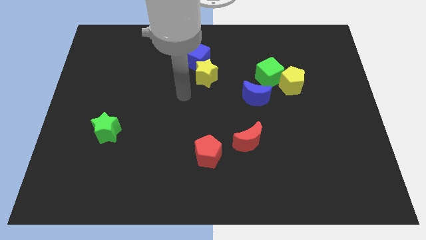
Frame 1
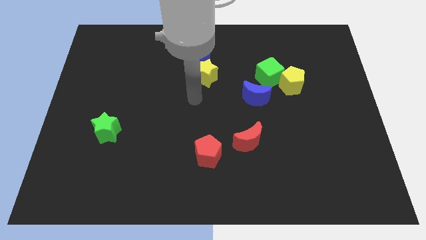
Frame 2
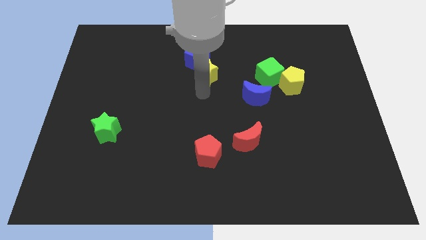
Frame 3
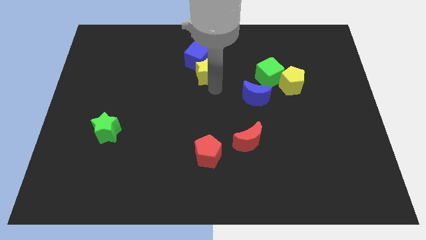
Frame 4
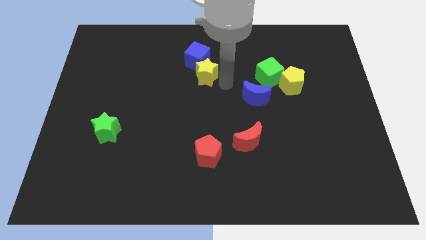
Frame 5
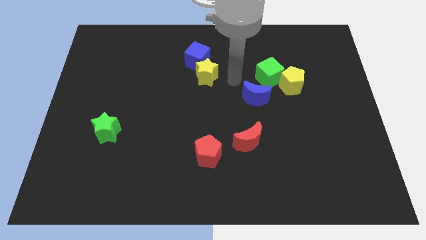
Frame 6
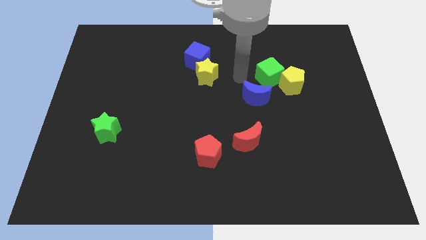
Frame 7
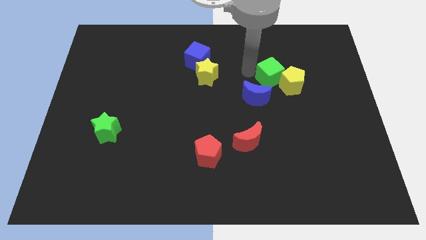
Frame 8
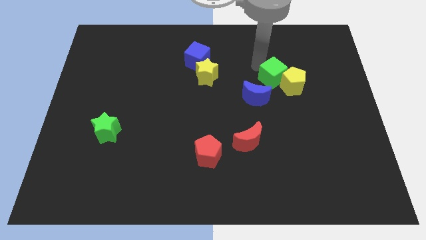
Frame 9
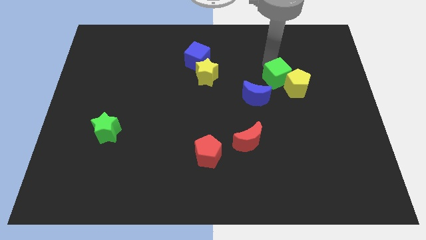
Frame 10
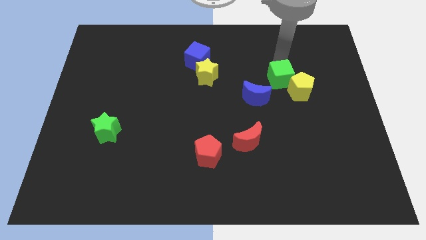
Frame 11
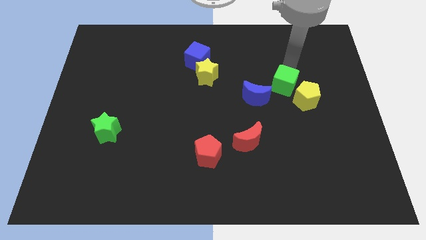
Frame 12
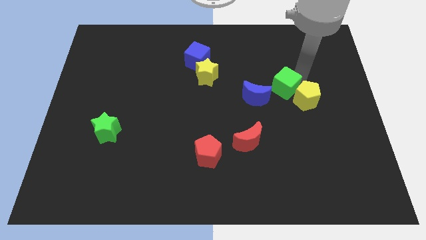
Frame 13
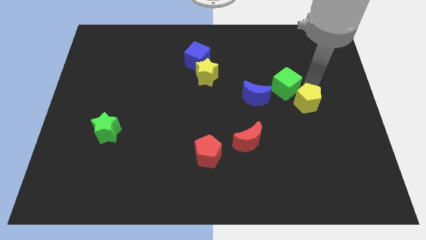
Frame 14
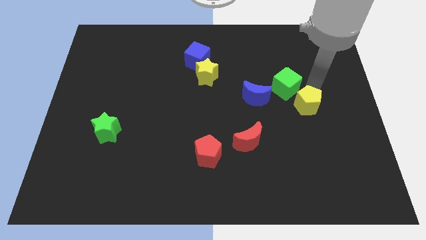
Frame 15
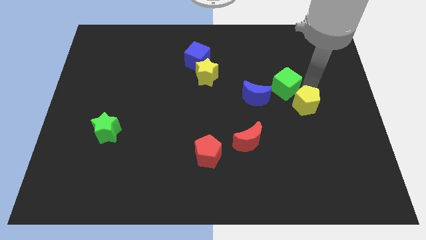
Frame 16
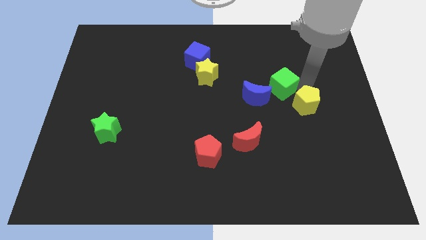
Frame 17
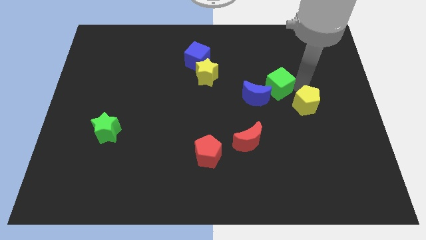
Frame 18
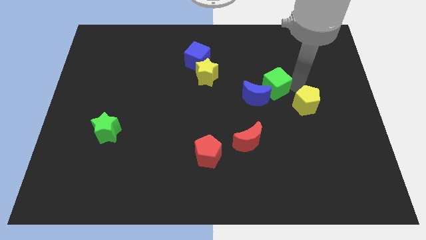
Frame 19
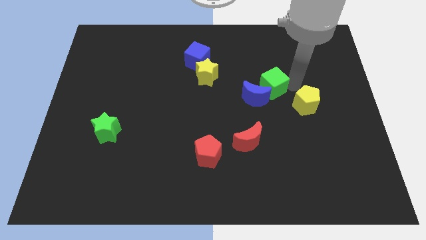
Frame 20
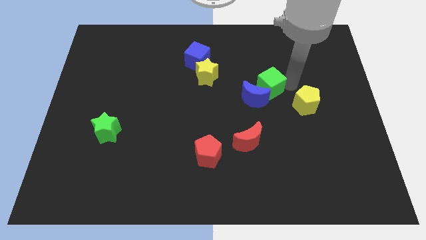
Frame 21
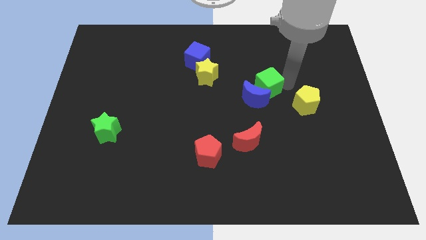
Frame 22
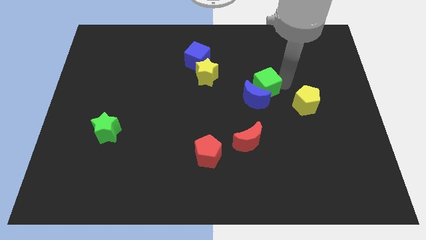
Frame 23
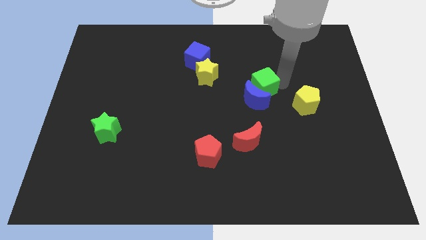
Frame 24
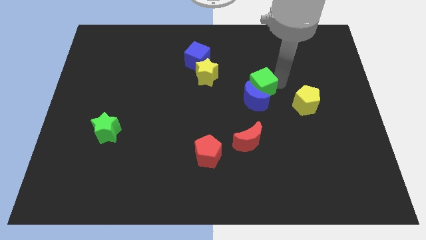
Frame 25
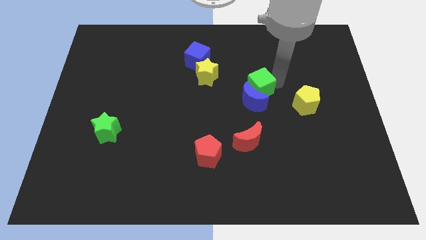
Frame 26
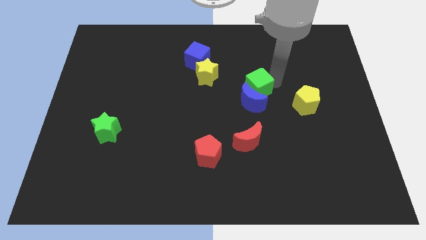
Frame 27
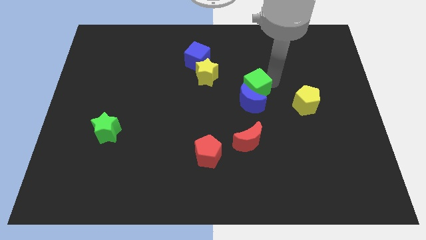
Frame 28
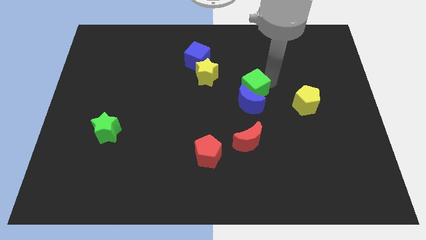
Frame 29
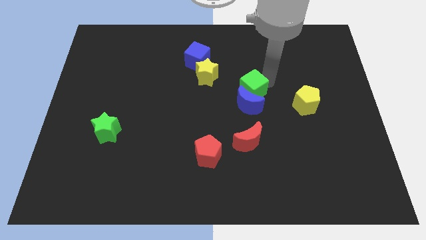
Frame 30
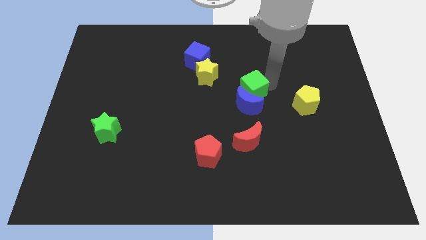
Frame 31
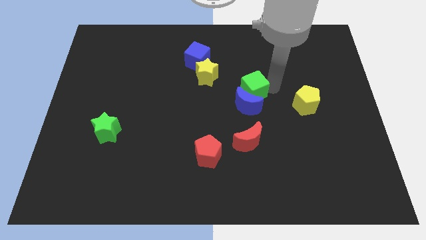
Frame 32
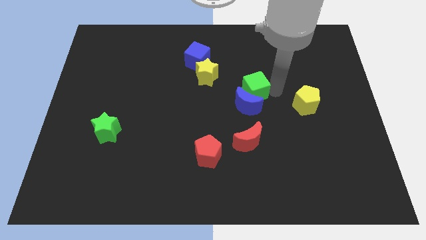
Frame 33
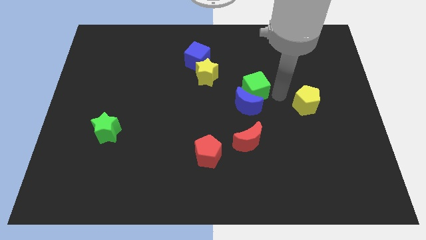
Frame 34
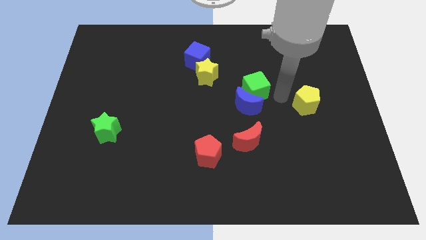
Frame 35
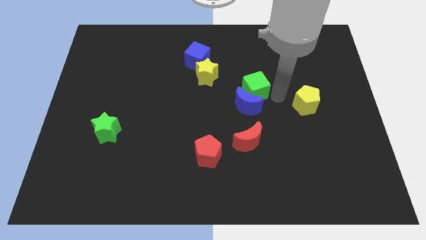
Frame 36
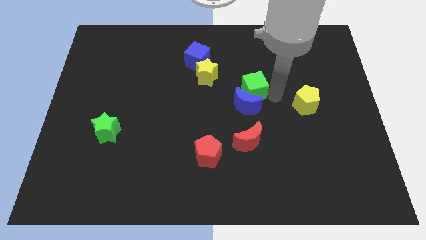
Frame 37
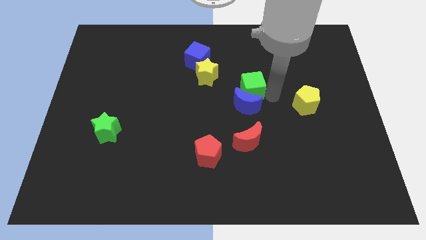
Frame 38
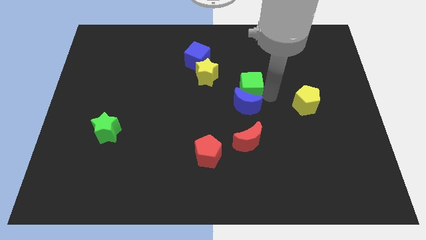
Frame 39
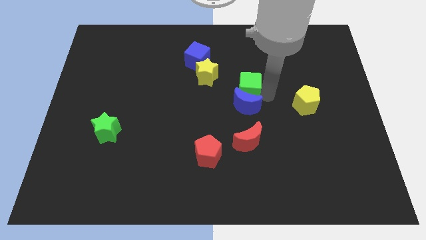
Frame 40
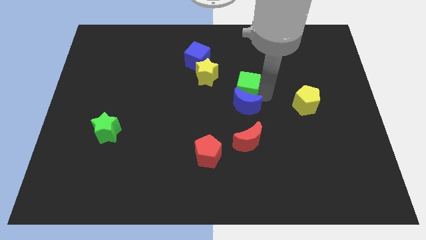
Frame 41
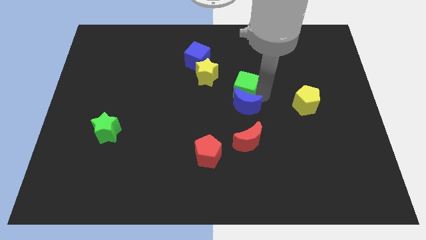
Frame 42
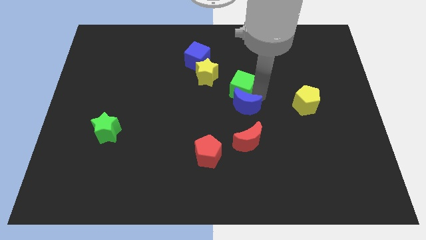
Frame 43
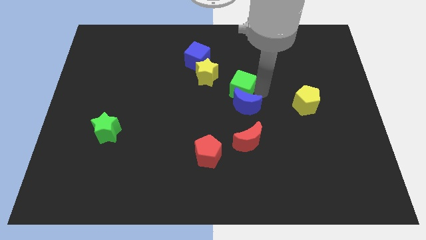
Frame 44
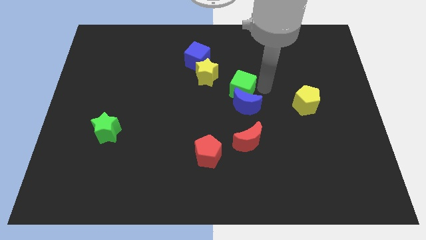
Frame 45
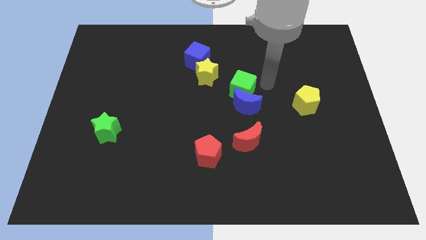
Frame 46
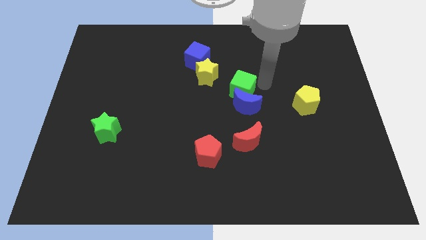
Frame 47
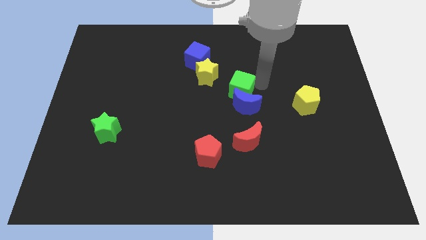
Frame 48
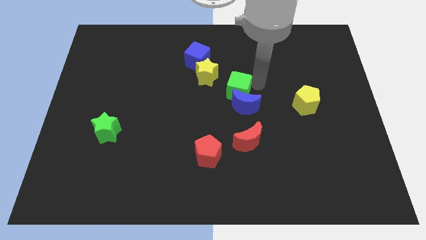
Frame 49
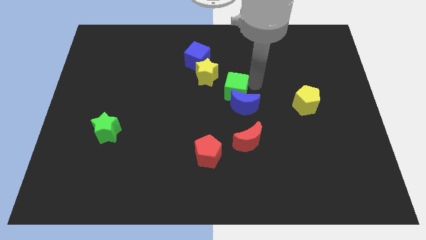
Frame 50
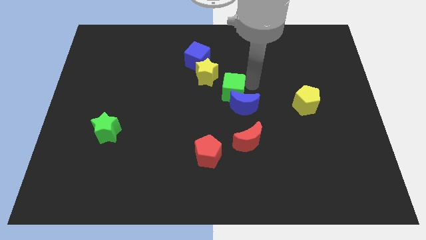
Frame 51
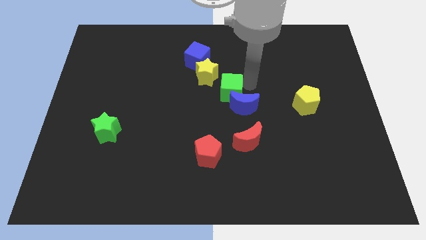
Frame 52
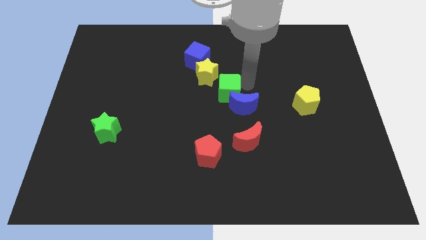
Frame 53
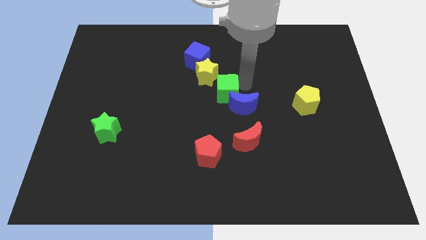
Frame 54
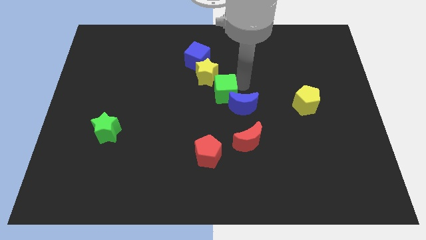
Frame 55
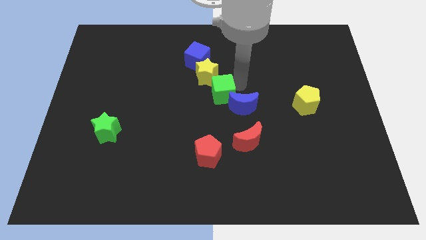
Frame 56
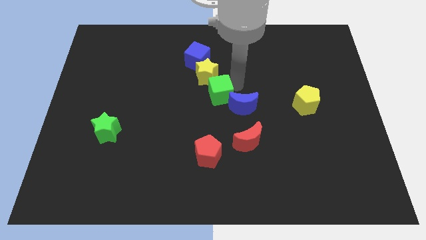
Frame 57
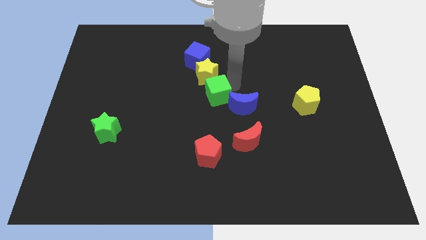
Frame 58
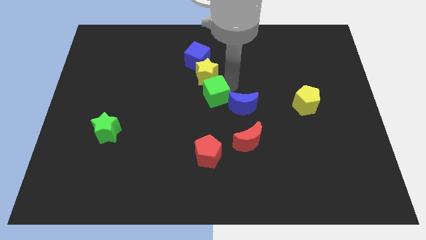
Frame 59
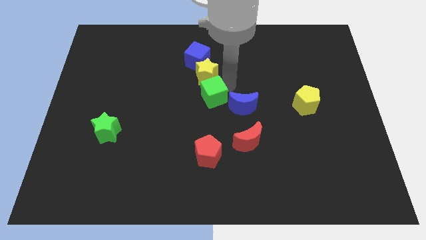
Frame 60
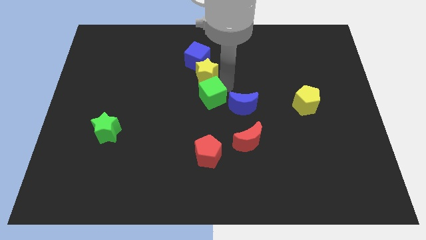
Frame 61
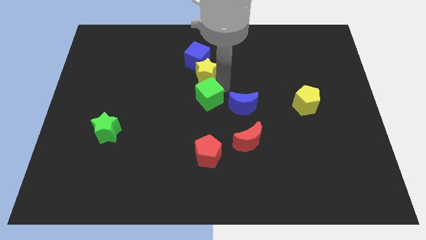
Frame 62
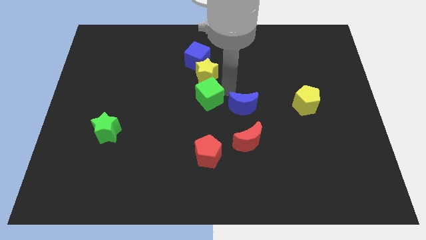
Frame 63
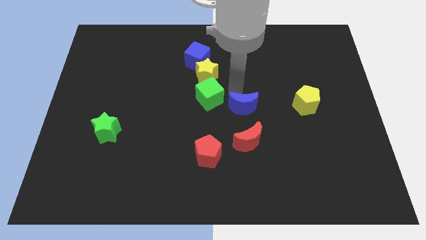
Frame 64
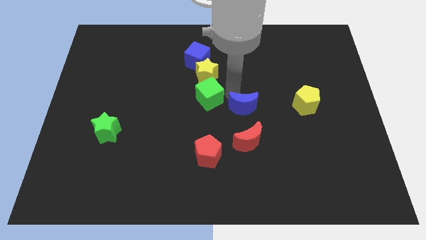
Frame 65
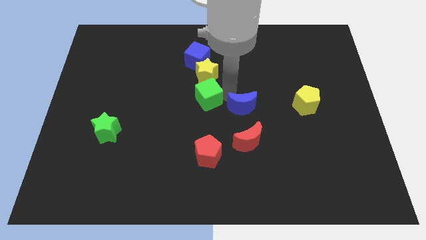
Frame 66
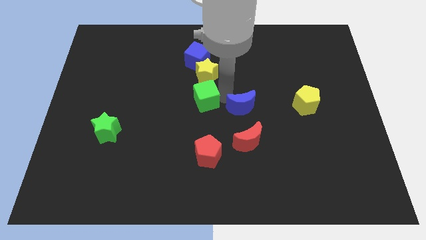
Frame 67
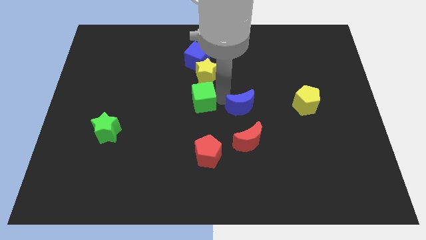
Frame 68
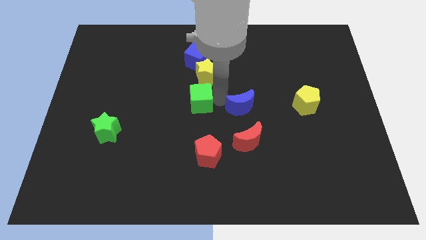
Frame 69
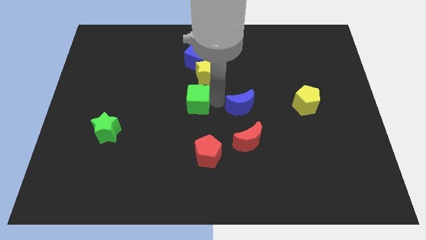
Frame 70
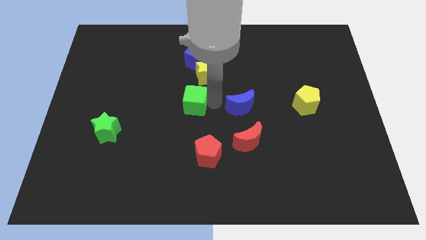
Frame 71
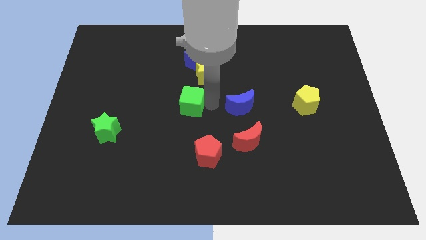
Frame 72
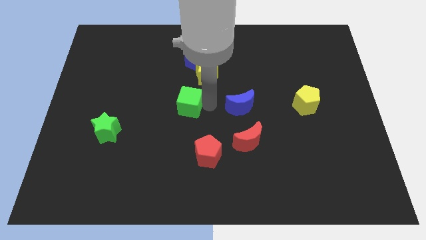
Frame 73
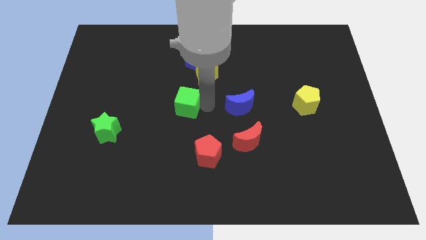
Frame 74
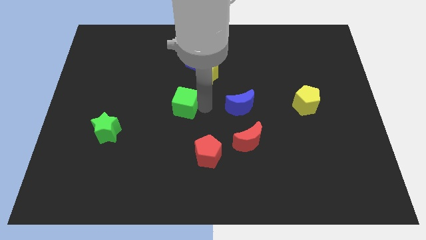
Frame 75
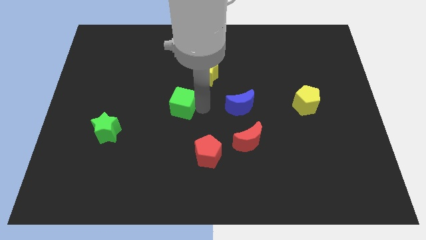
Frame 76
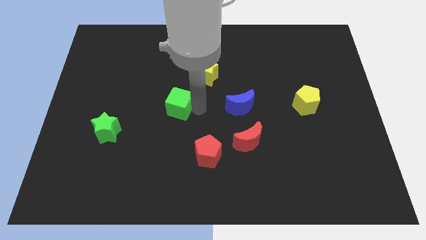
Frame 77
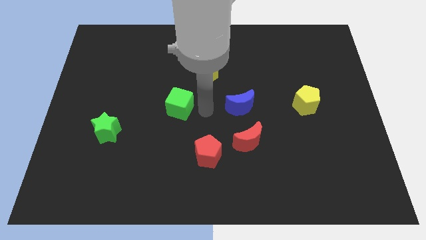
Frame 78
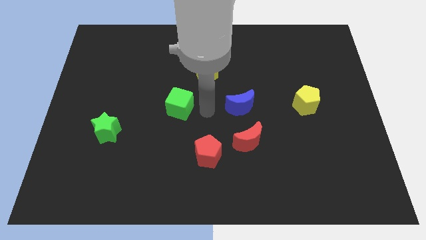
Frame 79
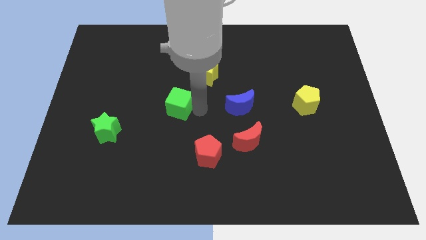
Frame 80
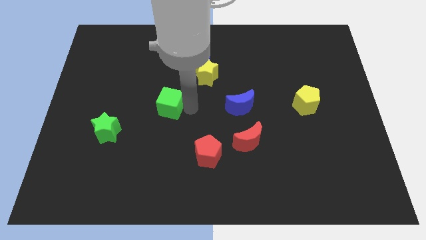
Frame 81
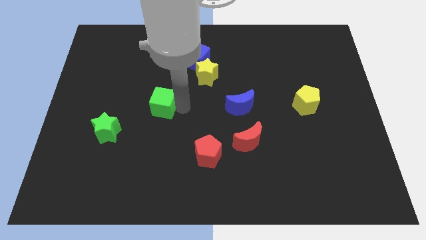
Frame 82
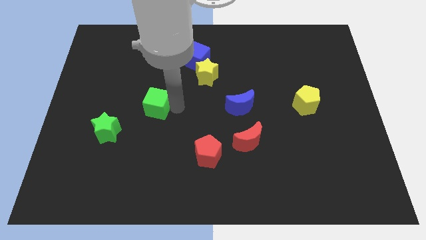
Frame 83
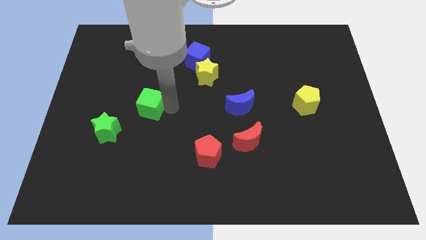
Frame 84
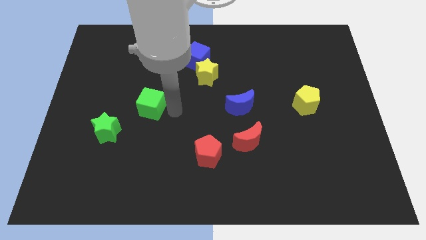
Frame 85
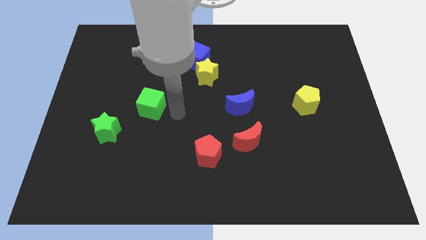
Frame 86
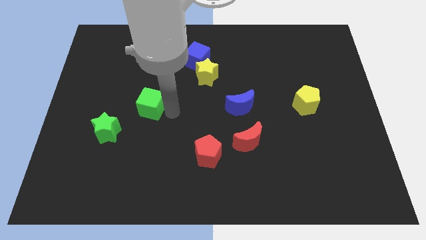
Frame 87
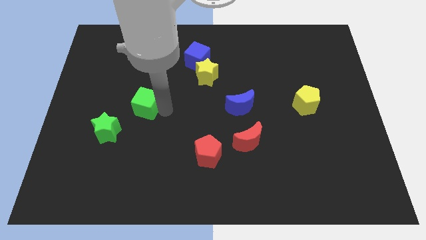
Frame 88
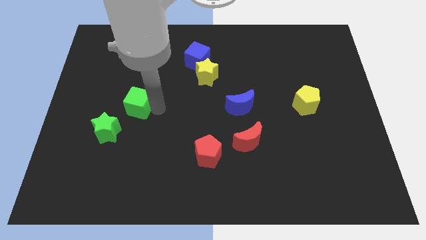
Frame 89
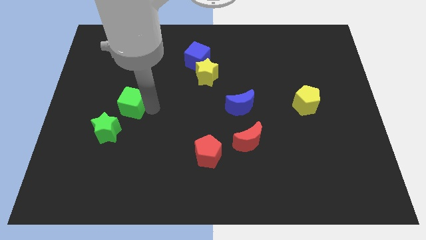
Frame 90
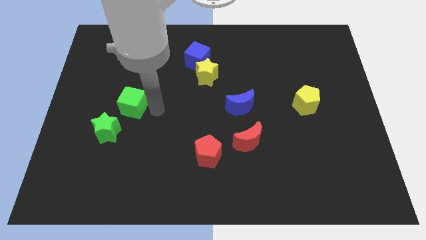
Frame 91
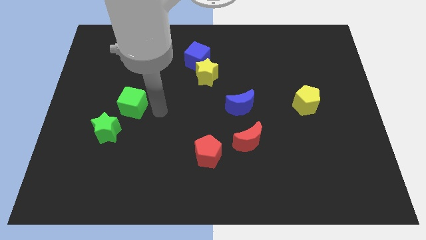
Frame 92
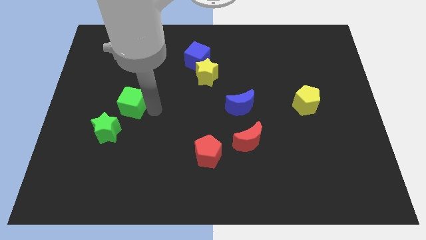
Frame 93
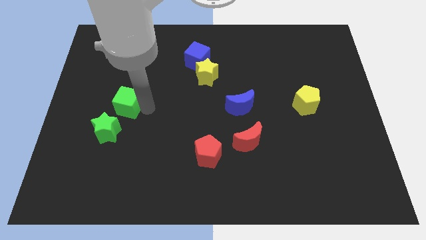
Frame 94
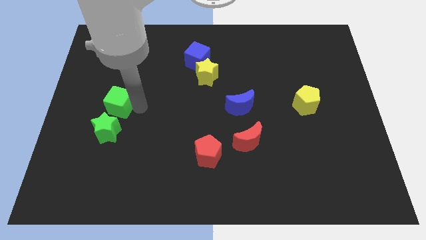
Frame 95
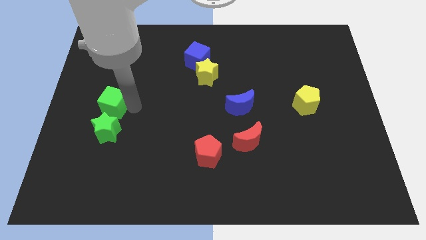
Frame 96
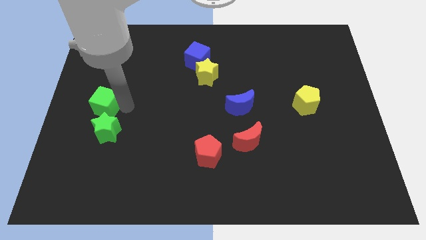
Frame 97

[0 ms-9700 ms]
slide the green cube to the center left
